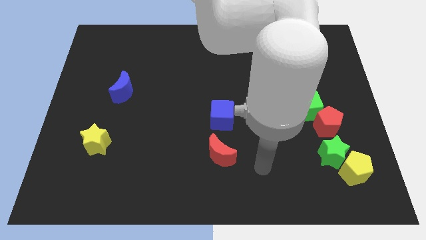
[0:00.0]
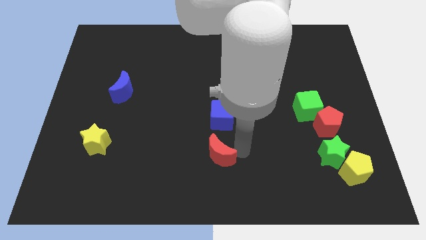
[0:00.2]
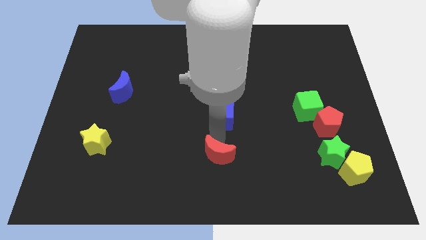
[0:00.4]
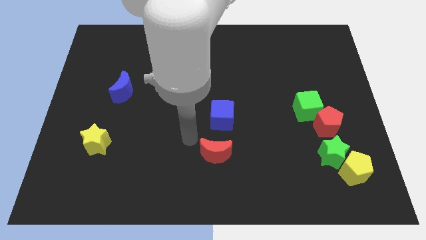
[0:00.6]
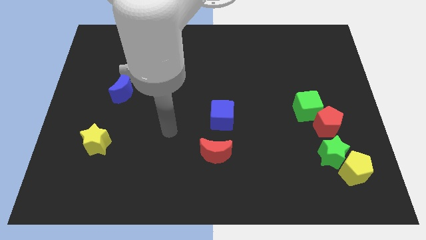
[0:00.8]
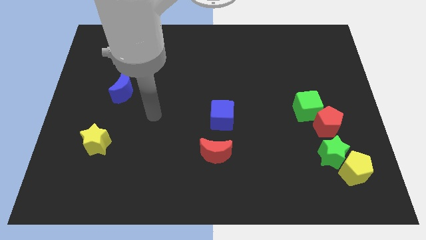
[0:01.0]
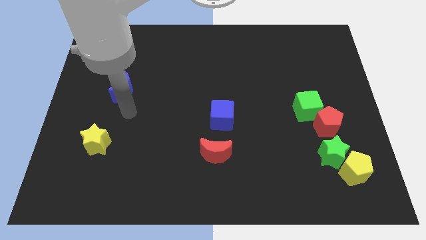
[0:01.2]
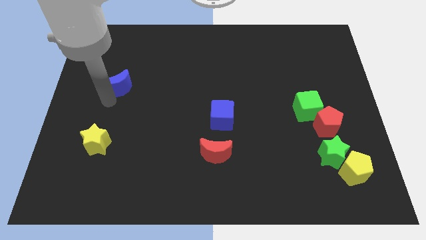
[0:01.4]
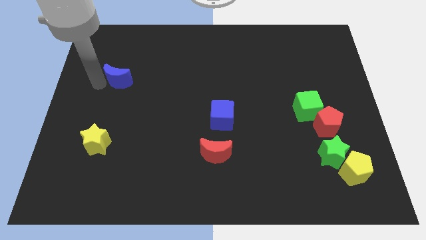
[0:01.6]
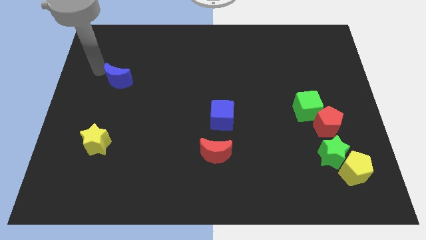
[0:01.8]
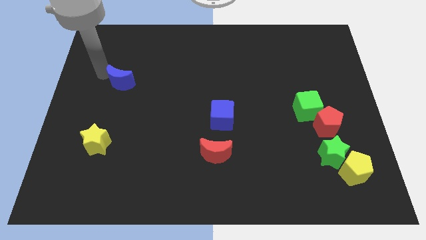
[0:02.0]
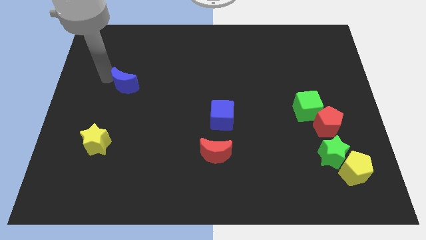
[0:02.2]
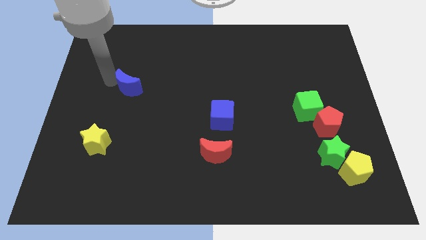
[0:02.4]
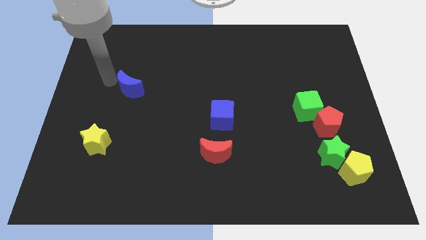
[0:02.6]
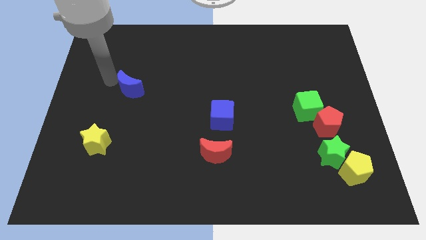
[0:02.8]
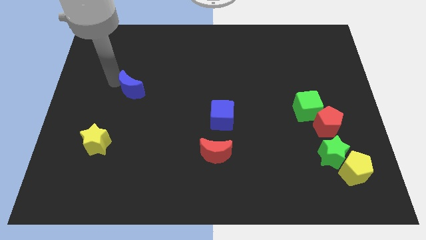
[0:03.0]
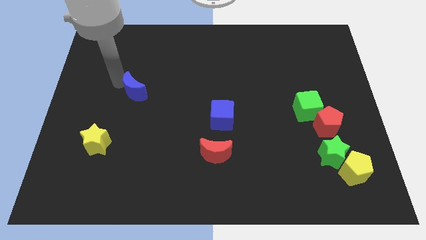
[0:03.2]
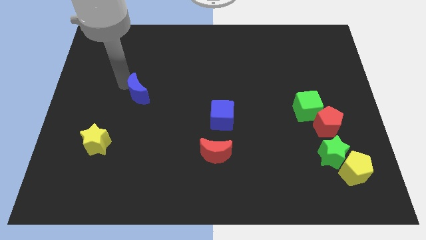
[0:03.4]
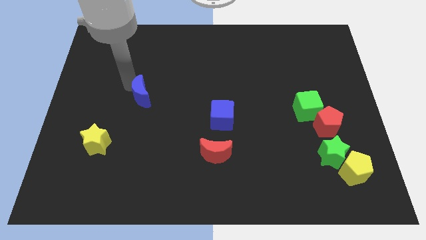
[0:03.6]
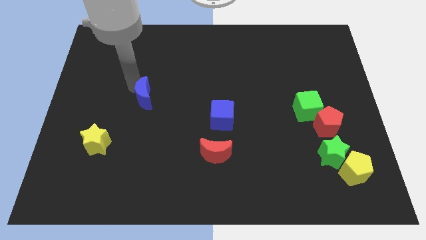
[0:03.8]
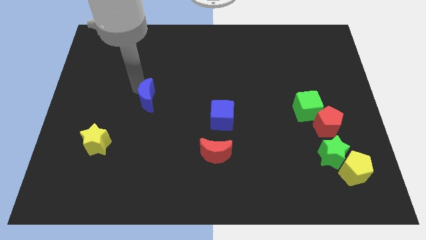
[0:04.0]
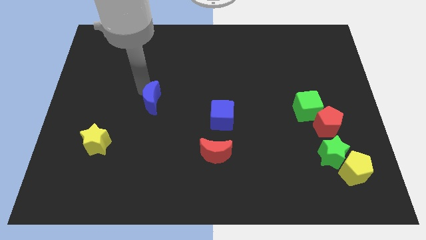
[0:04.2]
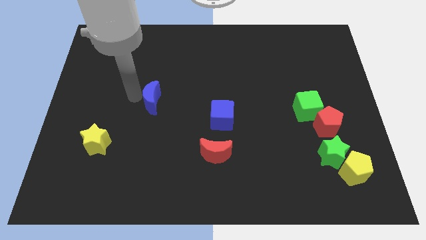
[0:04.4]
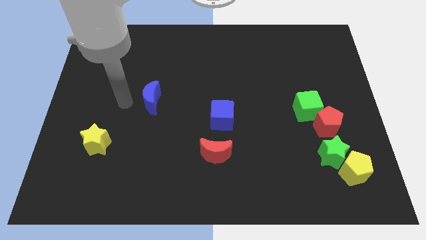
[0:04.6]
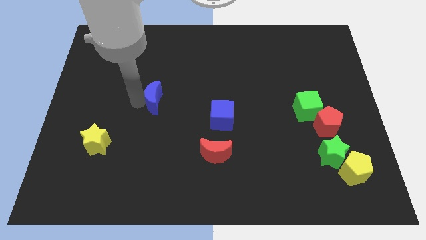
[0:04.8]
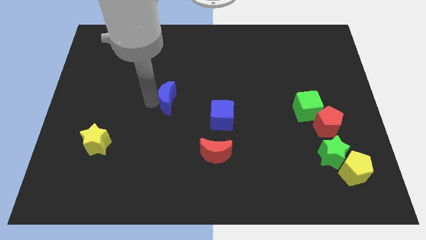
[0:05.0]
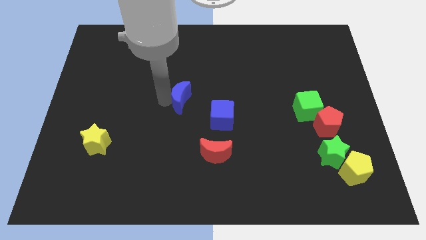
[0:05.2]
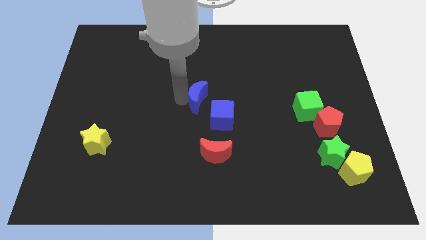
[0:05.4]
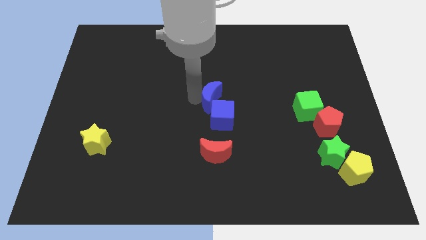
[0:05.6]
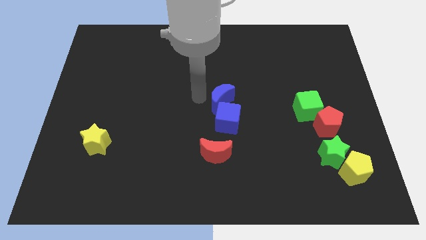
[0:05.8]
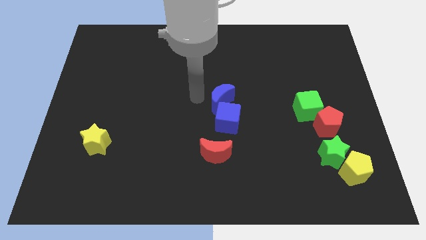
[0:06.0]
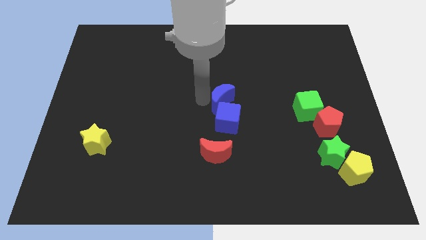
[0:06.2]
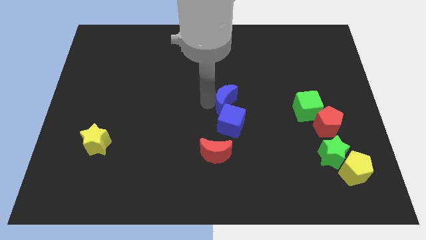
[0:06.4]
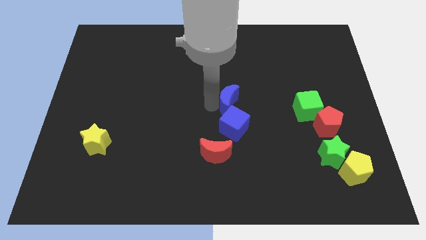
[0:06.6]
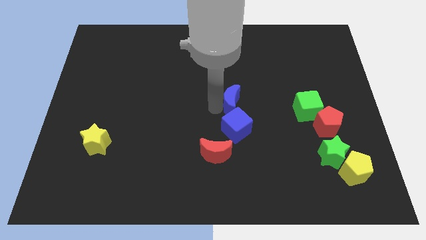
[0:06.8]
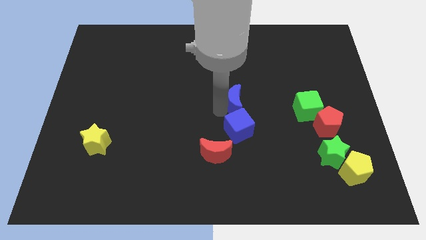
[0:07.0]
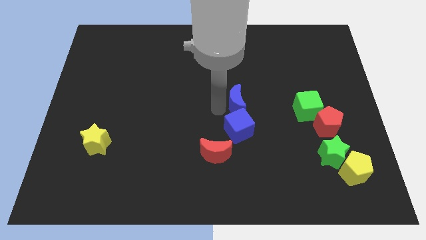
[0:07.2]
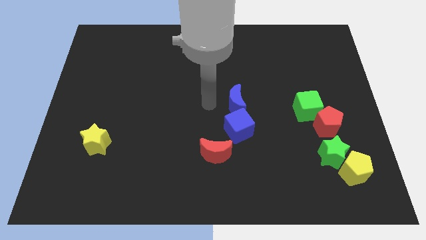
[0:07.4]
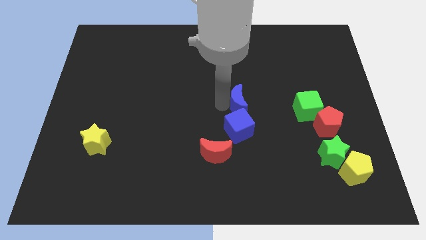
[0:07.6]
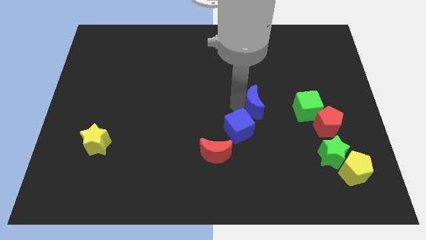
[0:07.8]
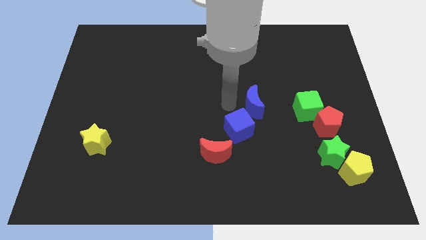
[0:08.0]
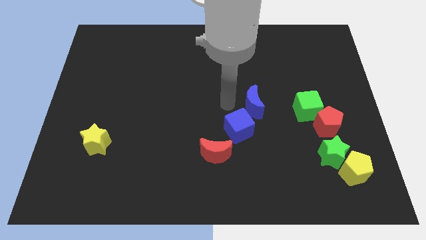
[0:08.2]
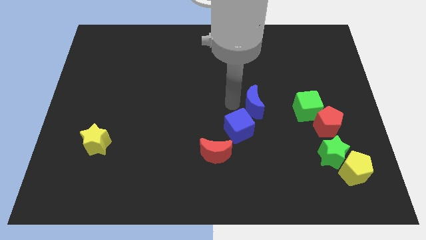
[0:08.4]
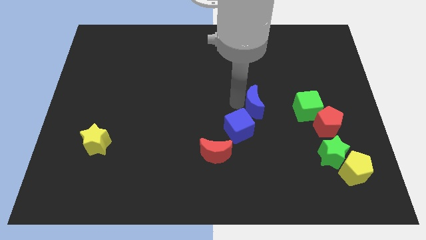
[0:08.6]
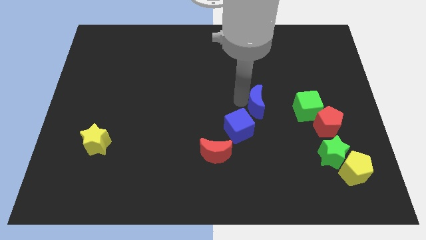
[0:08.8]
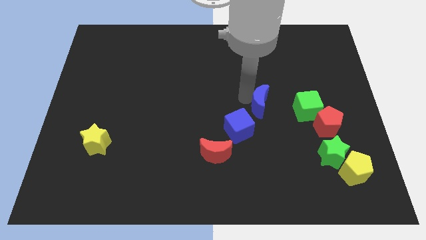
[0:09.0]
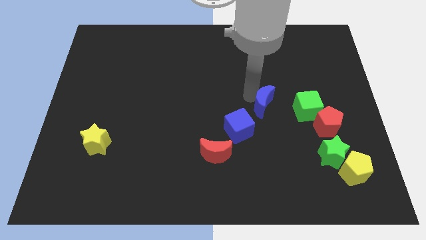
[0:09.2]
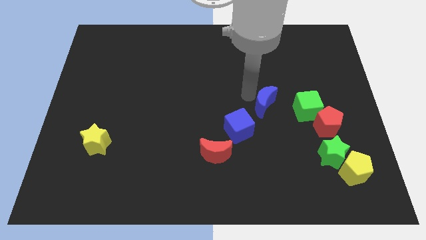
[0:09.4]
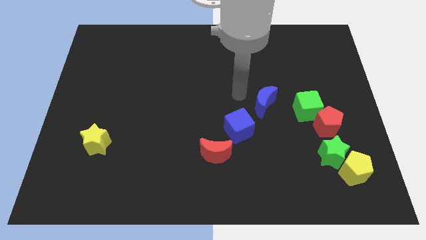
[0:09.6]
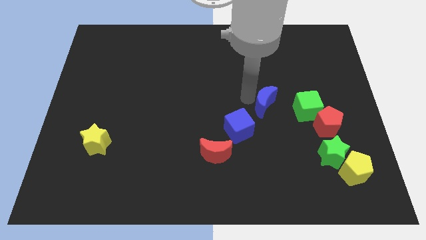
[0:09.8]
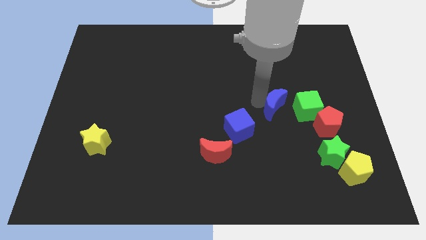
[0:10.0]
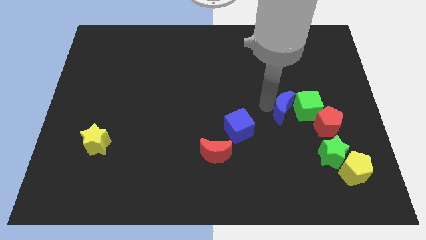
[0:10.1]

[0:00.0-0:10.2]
slide the blue moon close to the green cube

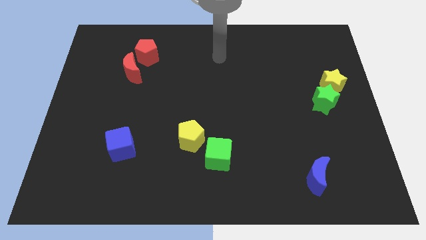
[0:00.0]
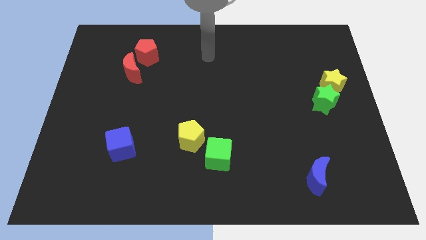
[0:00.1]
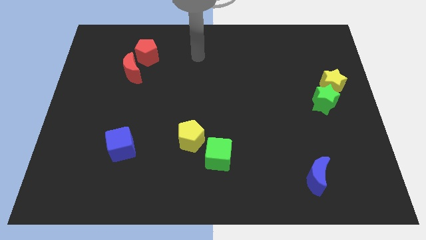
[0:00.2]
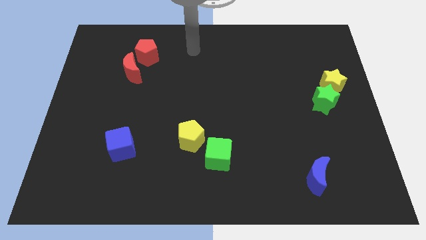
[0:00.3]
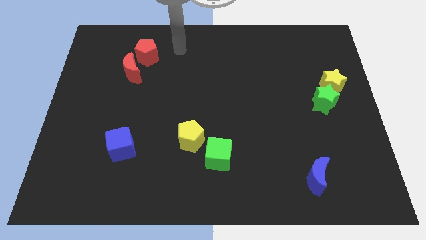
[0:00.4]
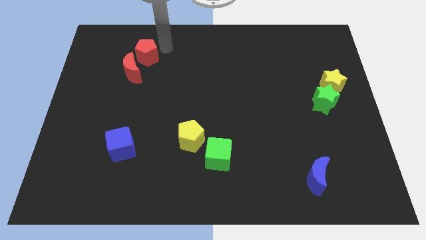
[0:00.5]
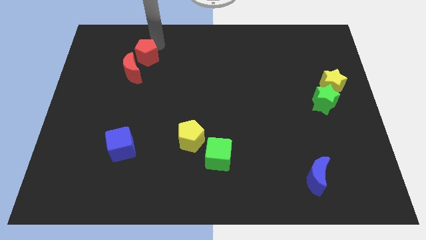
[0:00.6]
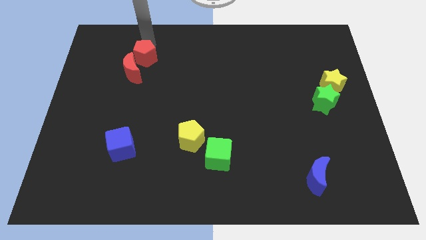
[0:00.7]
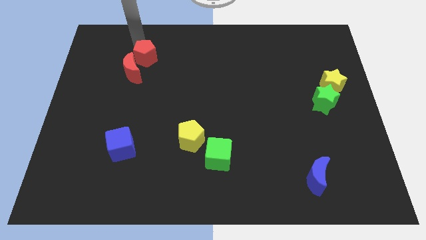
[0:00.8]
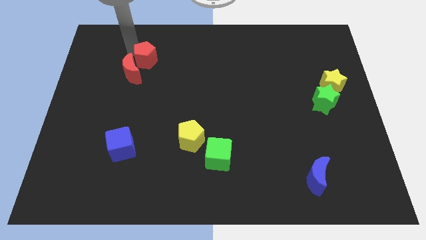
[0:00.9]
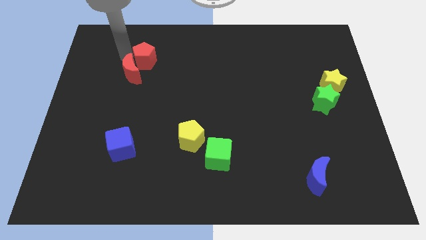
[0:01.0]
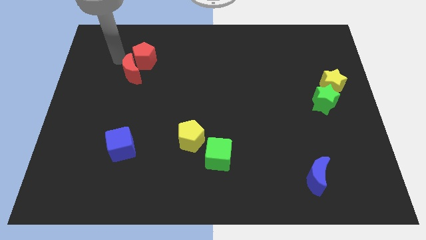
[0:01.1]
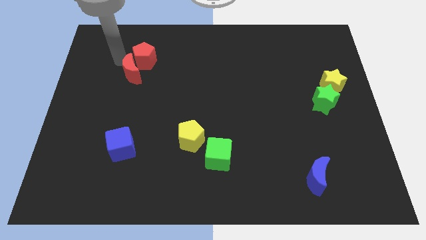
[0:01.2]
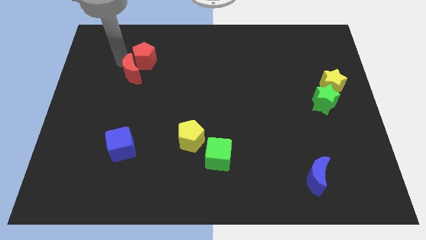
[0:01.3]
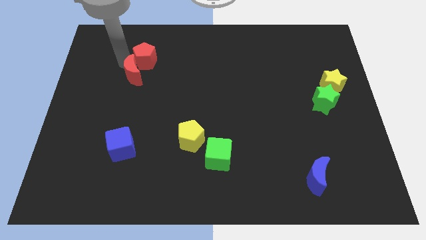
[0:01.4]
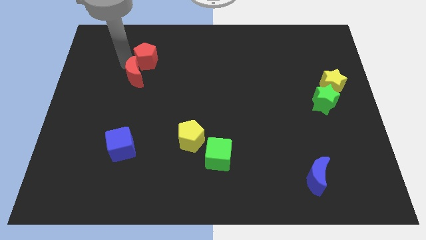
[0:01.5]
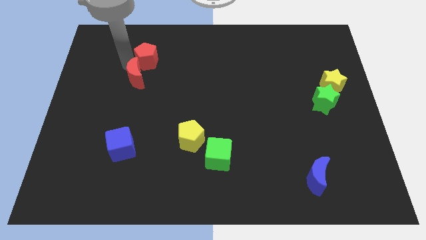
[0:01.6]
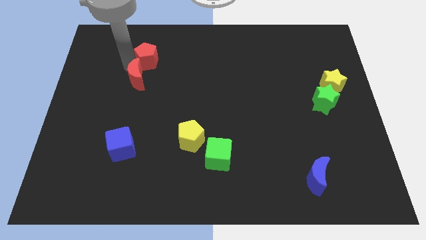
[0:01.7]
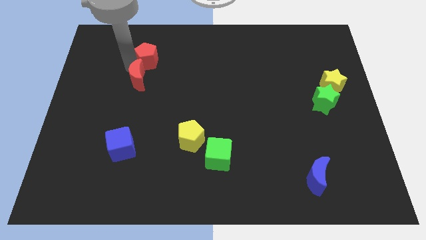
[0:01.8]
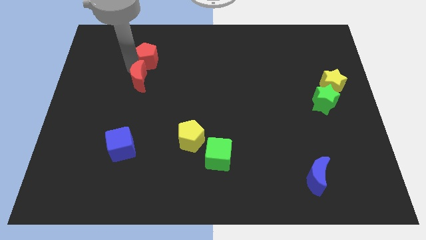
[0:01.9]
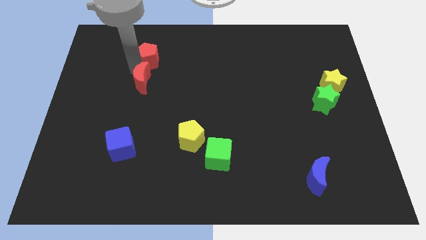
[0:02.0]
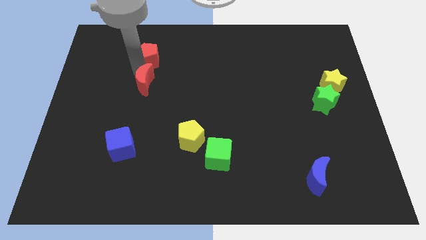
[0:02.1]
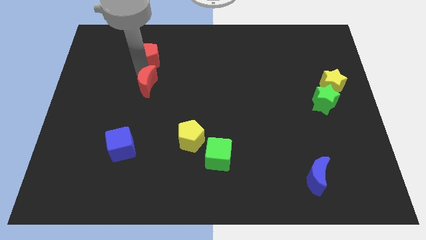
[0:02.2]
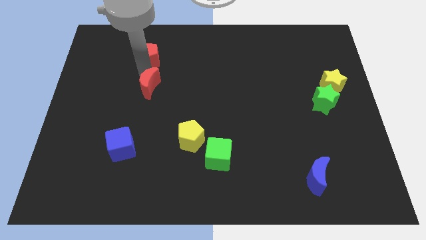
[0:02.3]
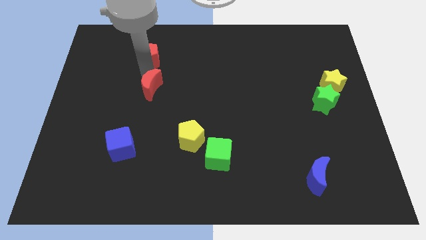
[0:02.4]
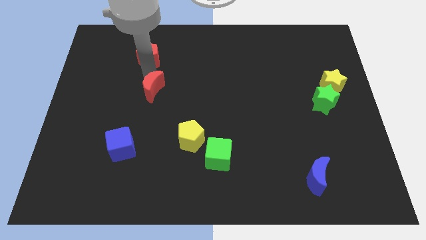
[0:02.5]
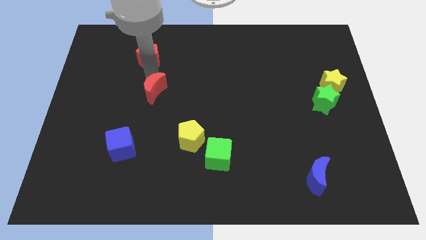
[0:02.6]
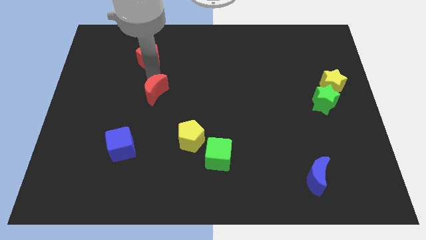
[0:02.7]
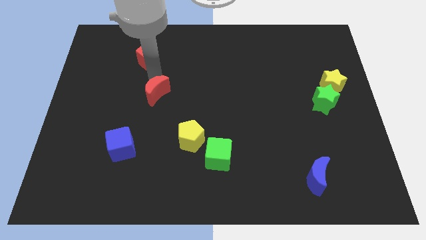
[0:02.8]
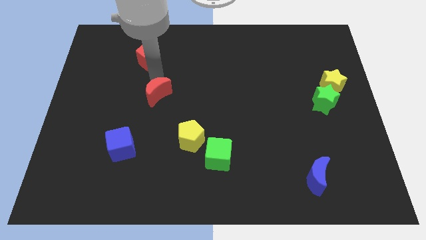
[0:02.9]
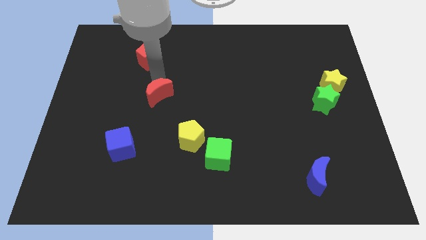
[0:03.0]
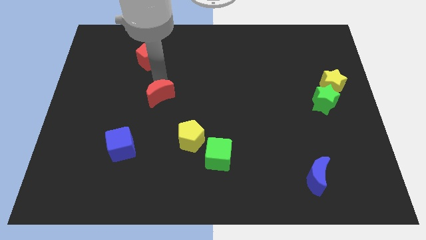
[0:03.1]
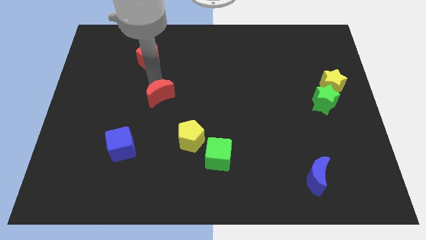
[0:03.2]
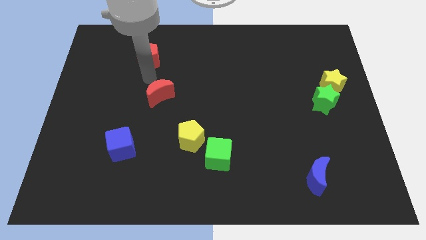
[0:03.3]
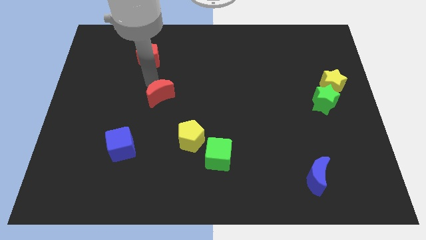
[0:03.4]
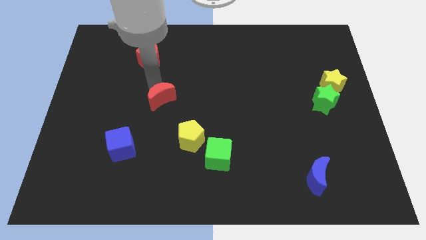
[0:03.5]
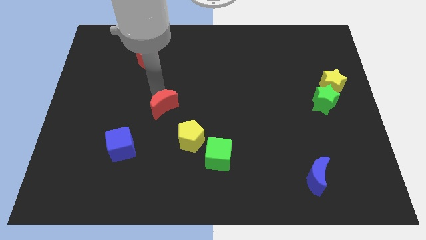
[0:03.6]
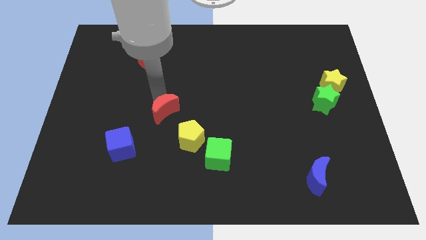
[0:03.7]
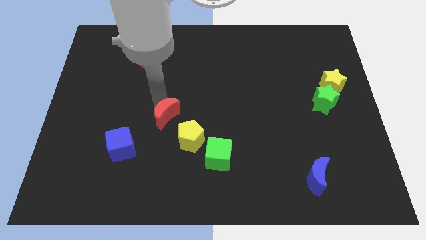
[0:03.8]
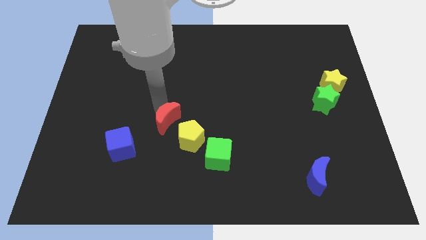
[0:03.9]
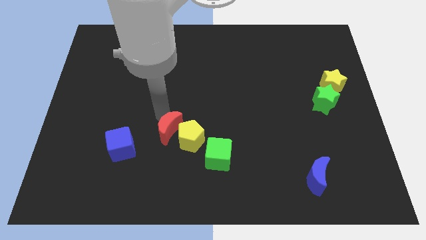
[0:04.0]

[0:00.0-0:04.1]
move the red moon towards the yellow pentagon
